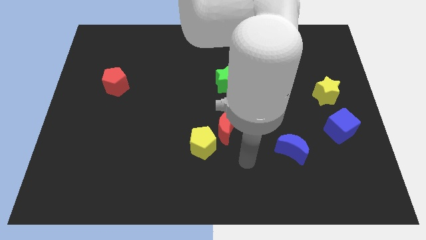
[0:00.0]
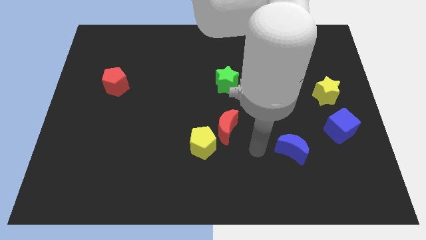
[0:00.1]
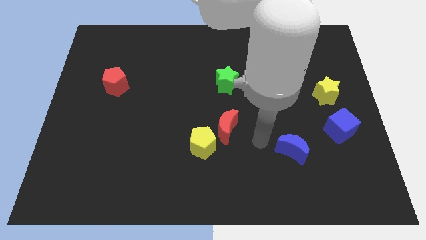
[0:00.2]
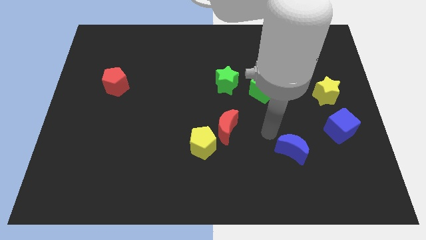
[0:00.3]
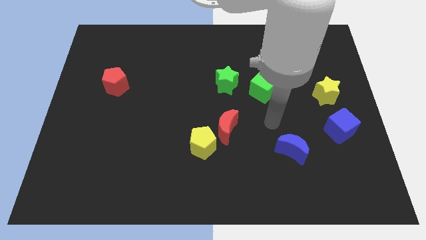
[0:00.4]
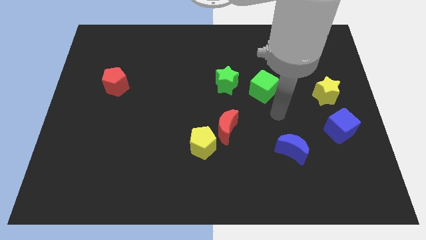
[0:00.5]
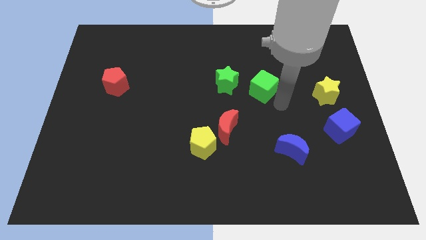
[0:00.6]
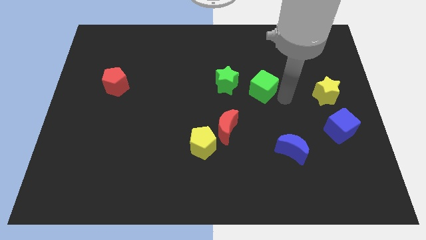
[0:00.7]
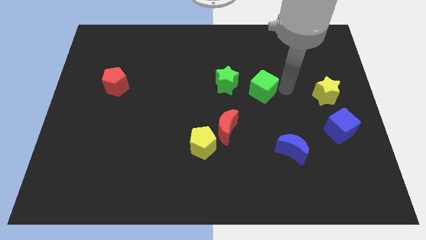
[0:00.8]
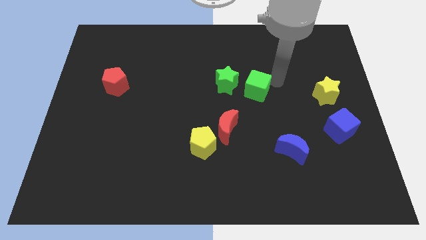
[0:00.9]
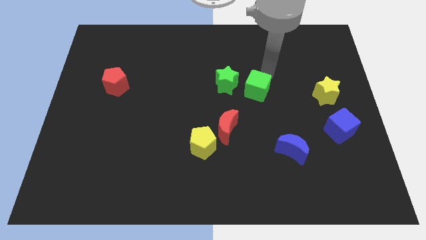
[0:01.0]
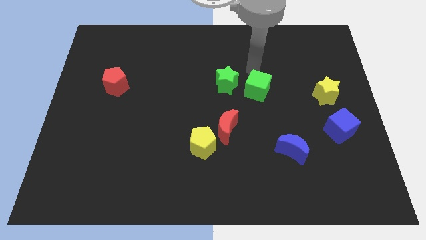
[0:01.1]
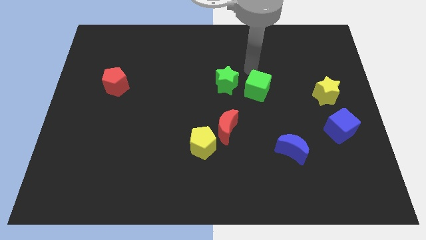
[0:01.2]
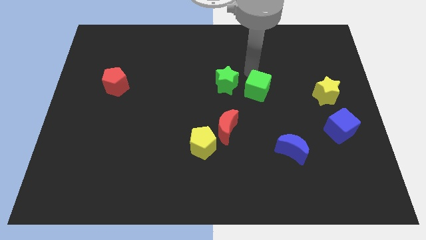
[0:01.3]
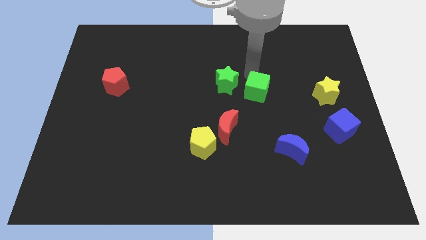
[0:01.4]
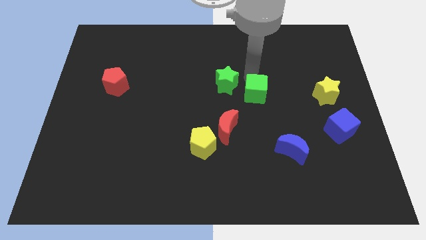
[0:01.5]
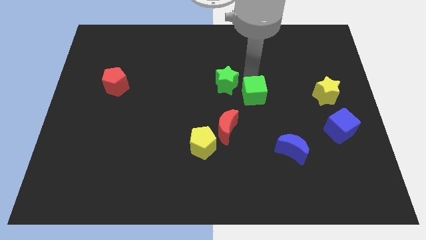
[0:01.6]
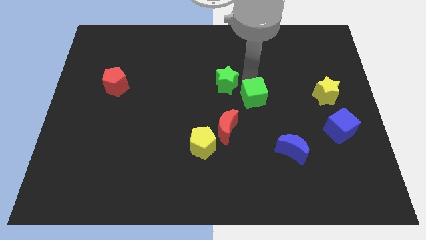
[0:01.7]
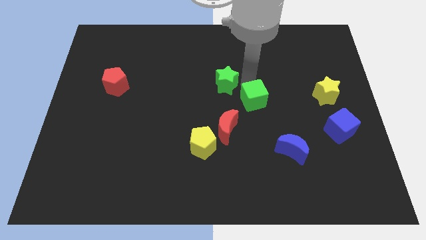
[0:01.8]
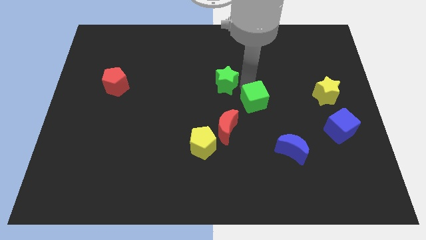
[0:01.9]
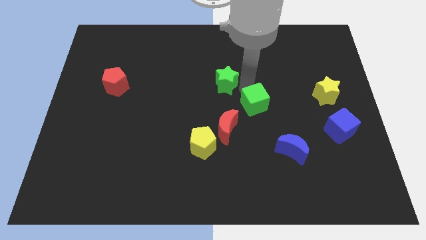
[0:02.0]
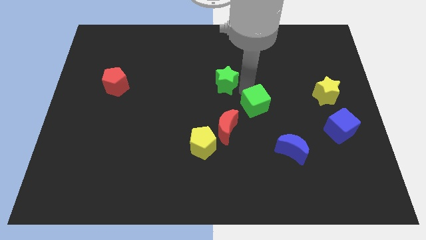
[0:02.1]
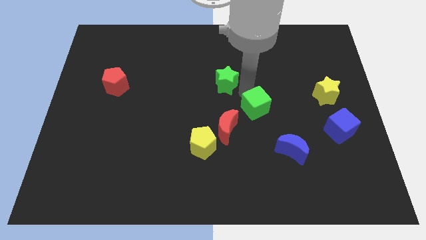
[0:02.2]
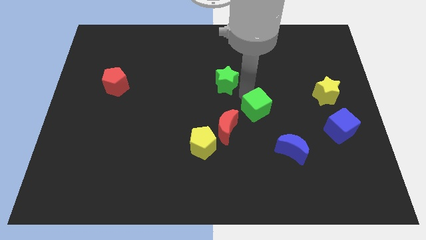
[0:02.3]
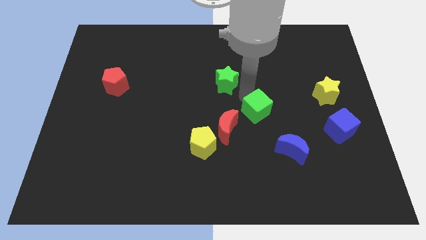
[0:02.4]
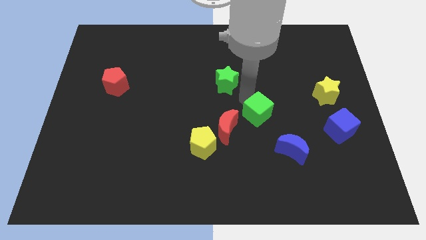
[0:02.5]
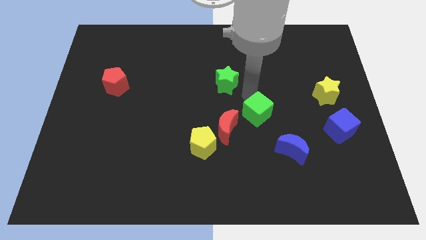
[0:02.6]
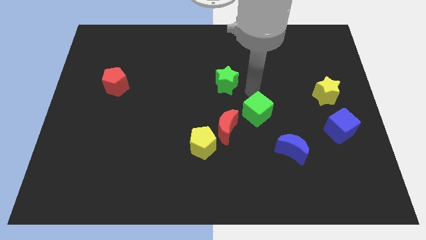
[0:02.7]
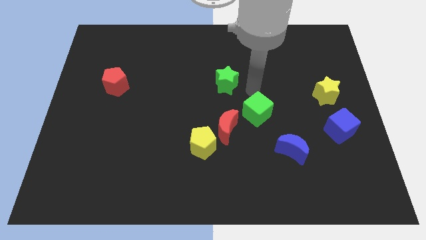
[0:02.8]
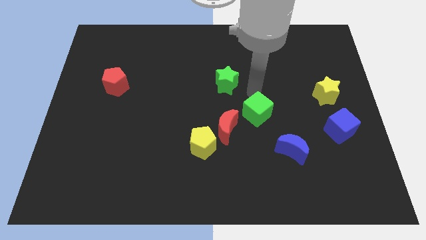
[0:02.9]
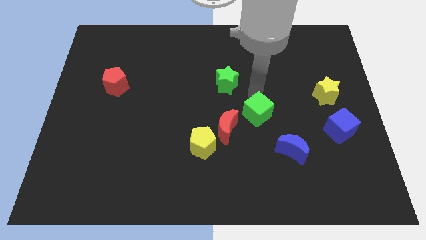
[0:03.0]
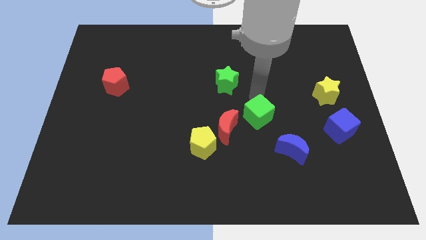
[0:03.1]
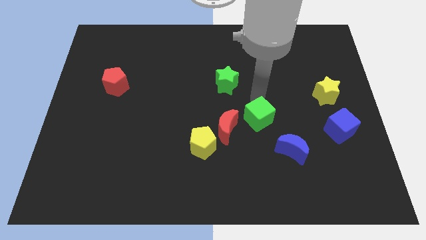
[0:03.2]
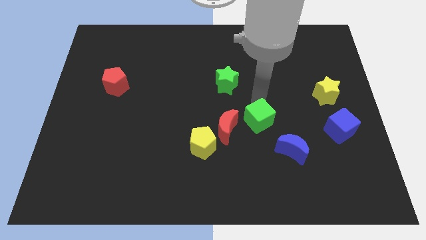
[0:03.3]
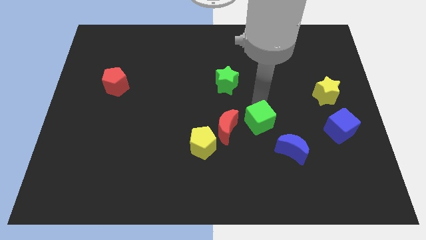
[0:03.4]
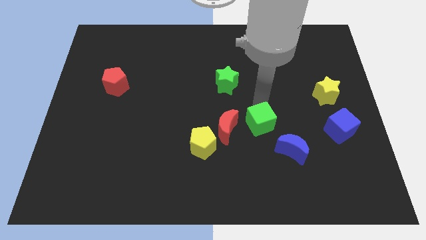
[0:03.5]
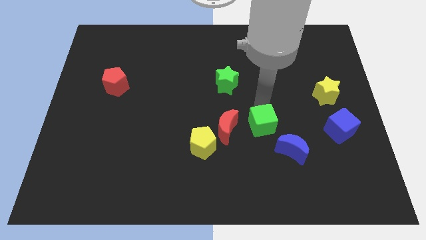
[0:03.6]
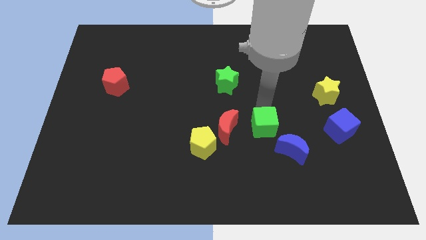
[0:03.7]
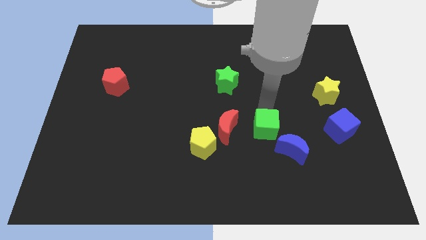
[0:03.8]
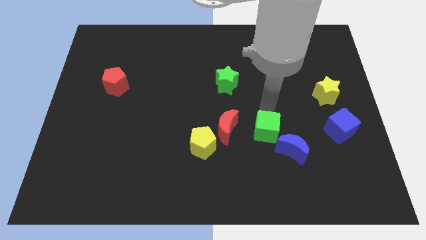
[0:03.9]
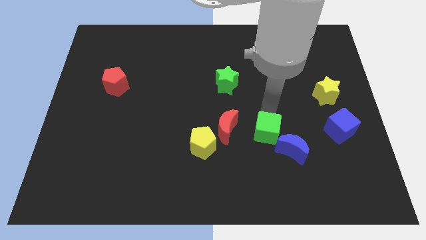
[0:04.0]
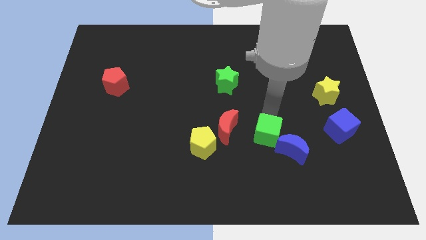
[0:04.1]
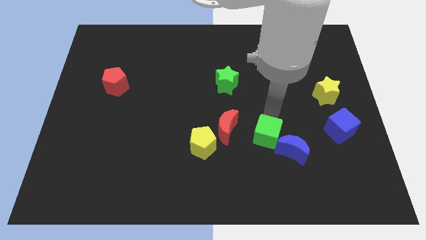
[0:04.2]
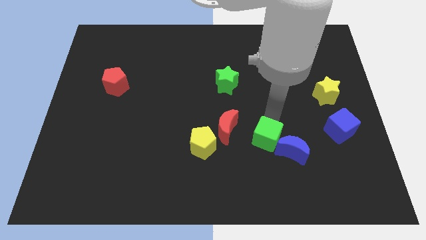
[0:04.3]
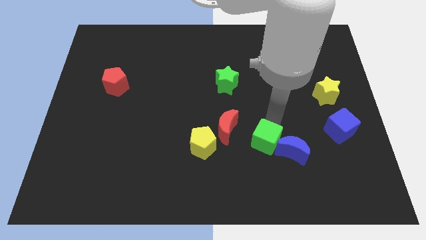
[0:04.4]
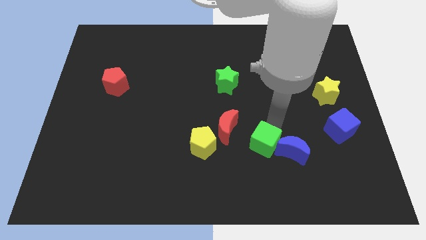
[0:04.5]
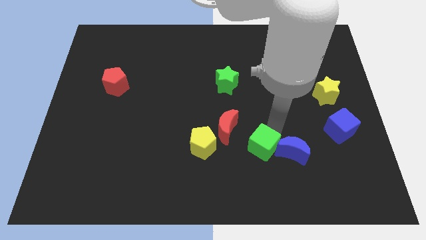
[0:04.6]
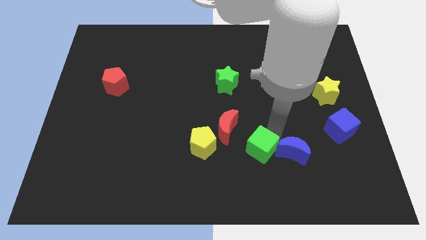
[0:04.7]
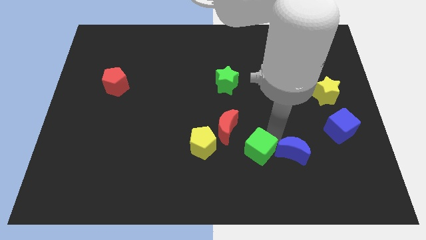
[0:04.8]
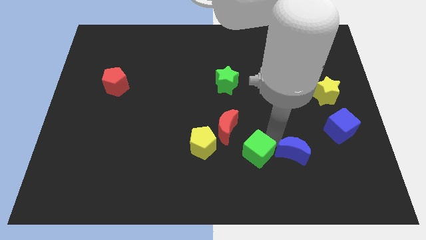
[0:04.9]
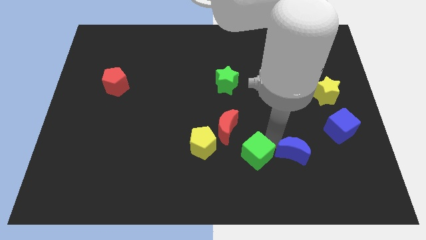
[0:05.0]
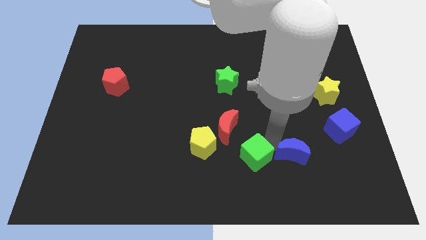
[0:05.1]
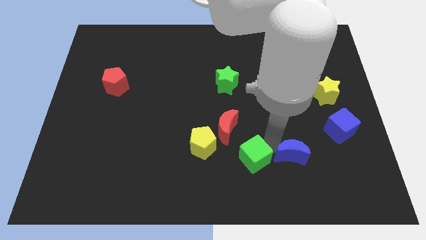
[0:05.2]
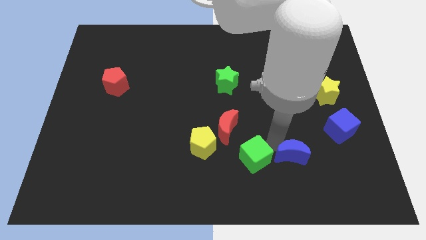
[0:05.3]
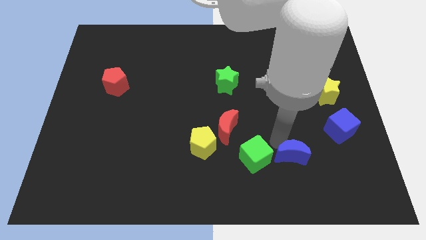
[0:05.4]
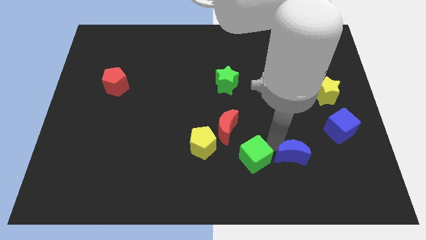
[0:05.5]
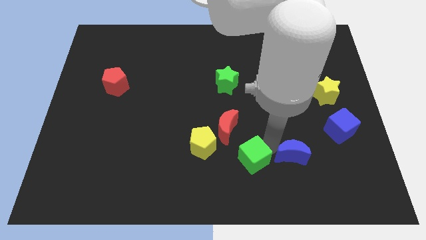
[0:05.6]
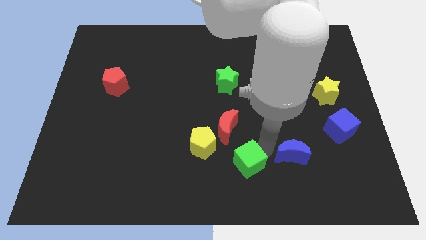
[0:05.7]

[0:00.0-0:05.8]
slide the green cube to the bottom side

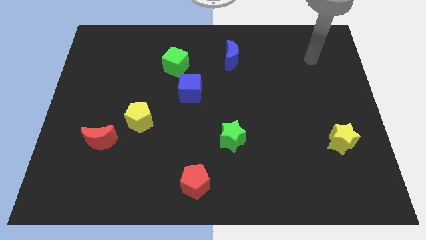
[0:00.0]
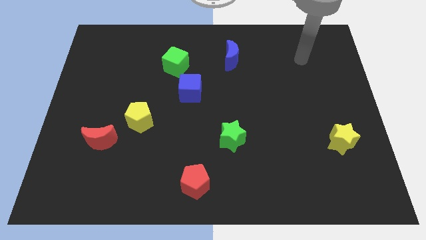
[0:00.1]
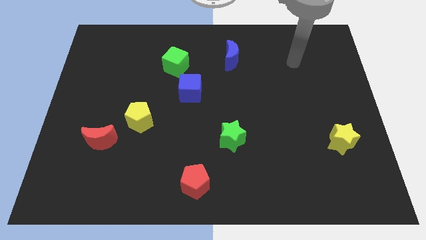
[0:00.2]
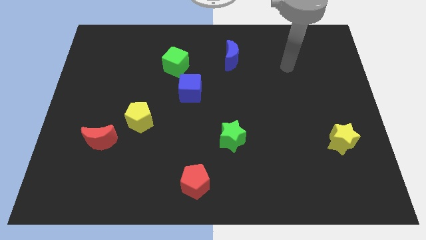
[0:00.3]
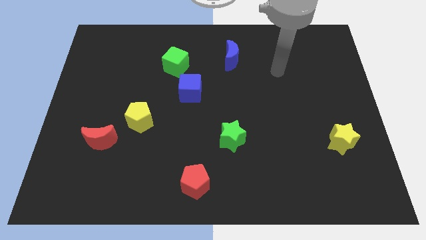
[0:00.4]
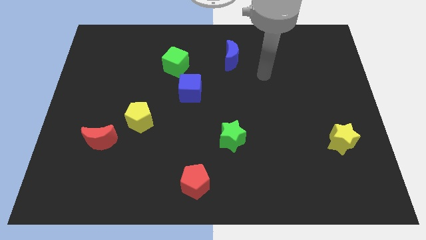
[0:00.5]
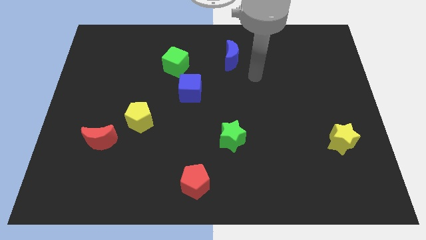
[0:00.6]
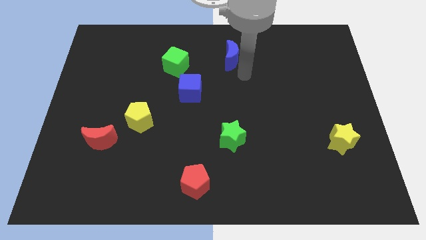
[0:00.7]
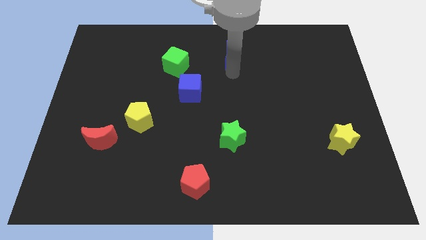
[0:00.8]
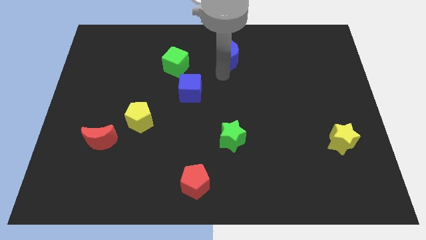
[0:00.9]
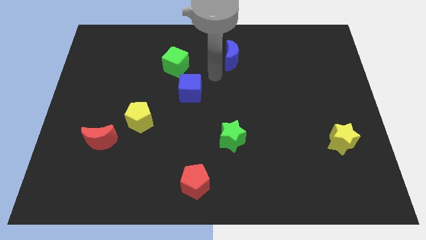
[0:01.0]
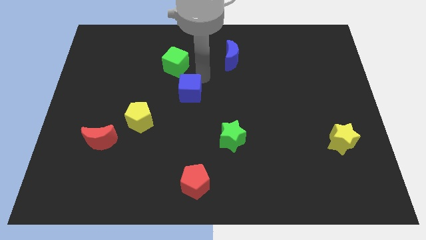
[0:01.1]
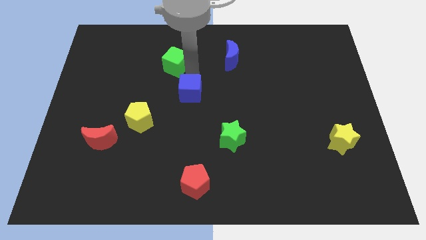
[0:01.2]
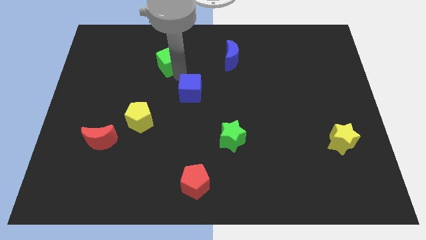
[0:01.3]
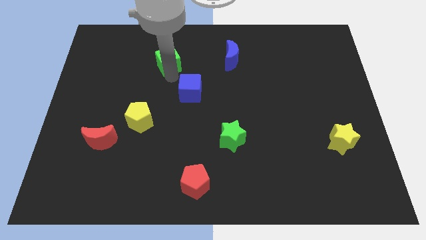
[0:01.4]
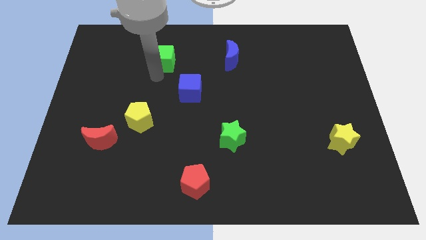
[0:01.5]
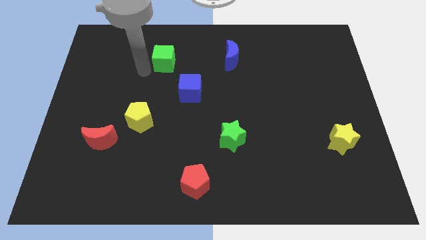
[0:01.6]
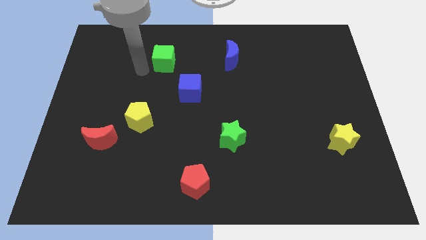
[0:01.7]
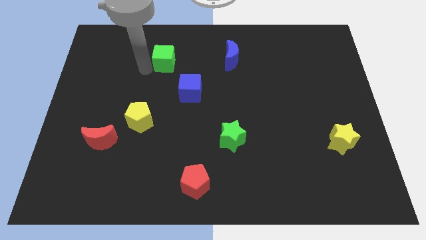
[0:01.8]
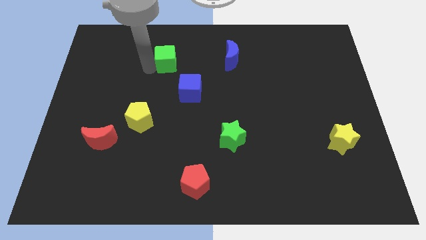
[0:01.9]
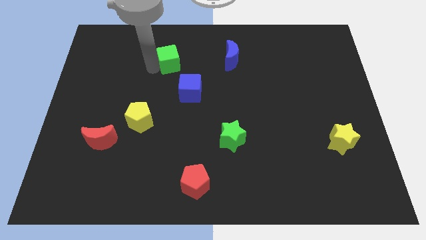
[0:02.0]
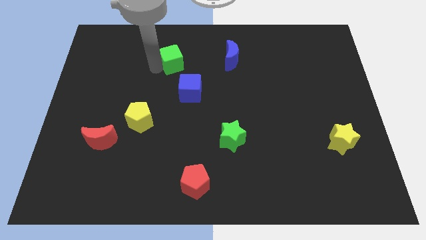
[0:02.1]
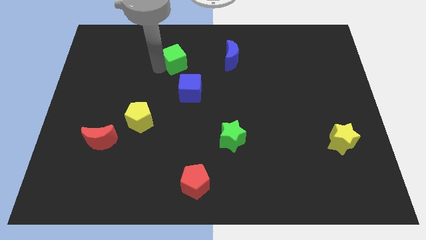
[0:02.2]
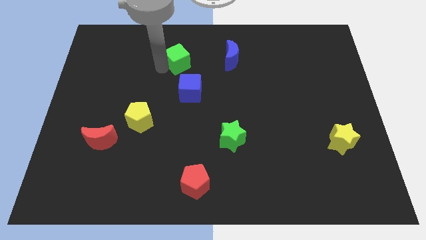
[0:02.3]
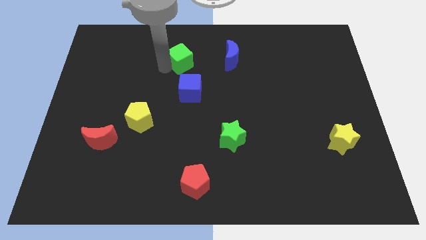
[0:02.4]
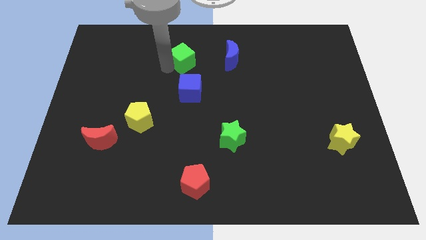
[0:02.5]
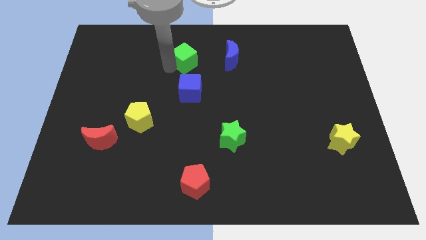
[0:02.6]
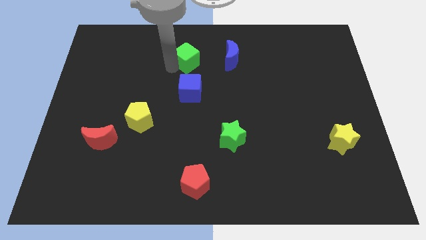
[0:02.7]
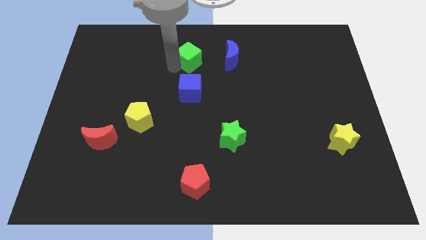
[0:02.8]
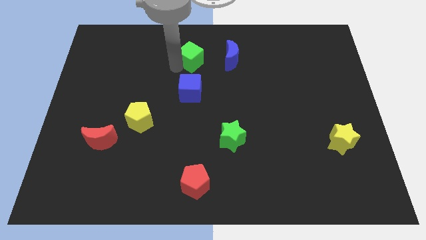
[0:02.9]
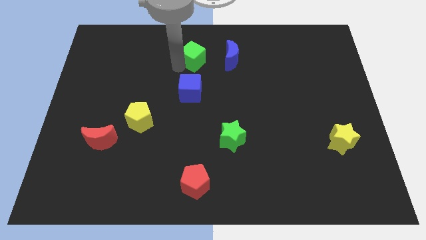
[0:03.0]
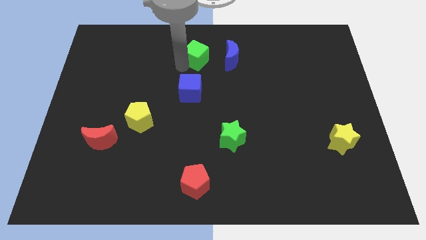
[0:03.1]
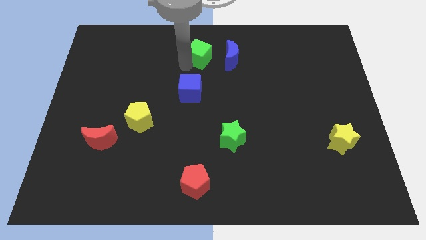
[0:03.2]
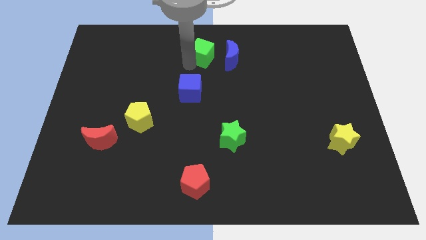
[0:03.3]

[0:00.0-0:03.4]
push the green cube to the towards your base
